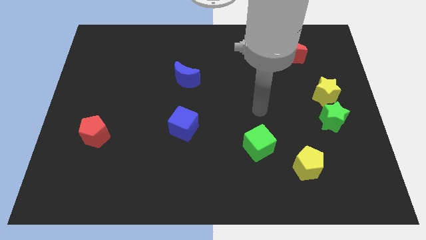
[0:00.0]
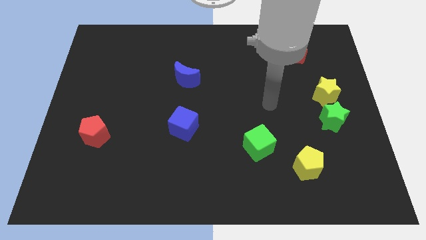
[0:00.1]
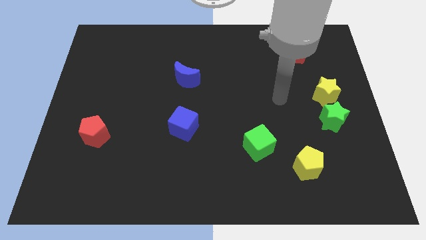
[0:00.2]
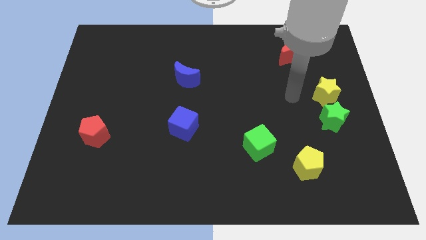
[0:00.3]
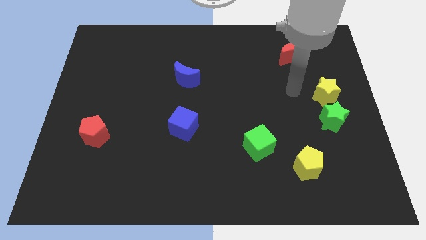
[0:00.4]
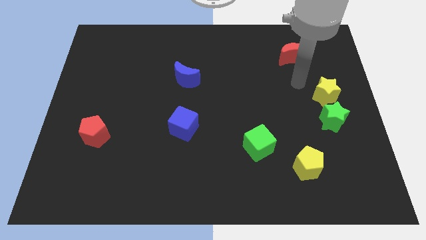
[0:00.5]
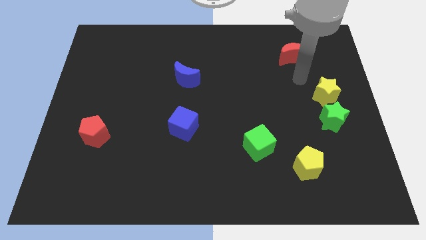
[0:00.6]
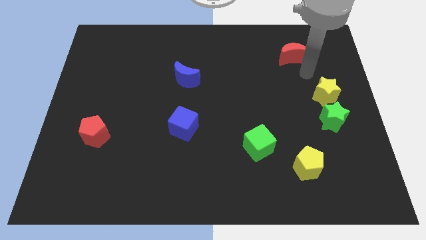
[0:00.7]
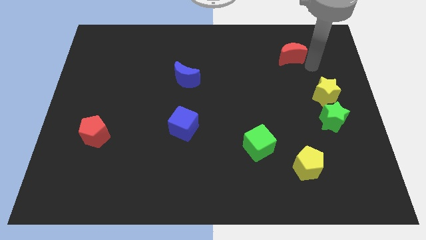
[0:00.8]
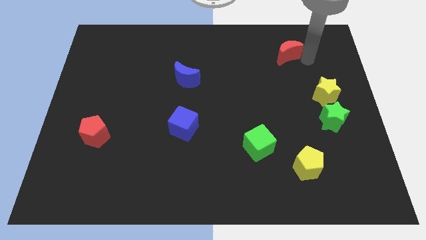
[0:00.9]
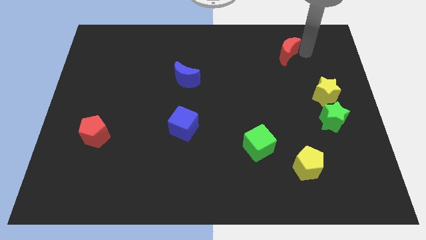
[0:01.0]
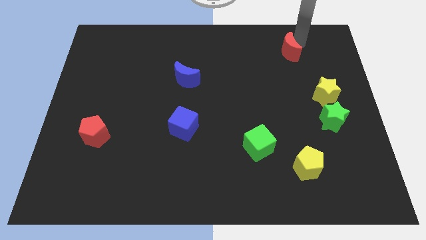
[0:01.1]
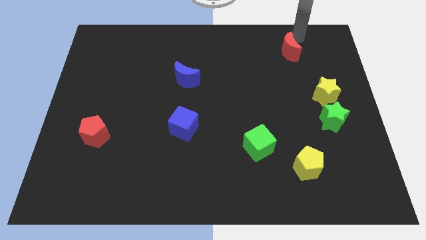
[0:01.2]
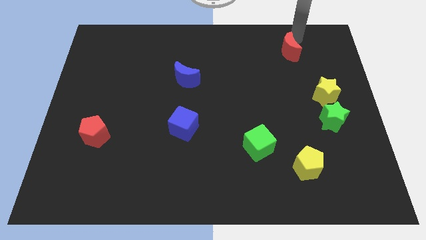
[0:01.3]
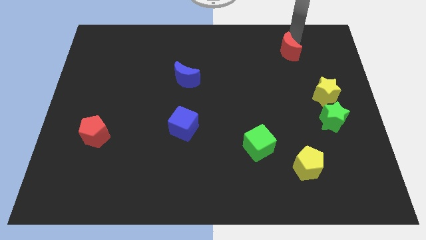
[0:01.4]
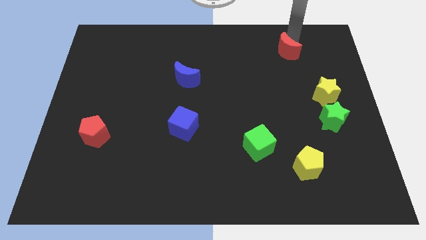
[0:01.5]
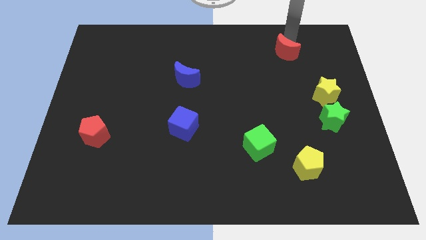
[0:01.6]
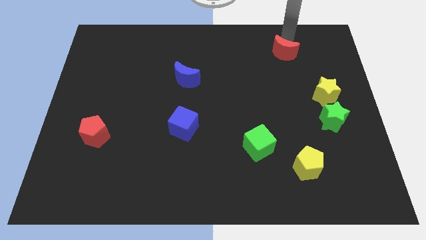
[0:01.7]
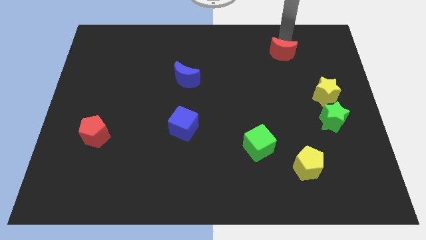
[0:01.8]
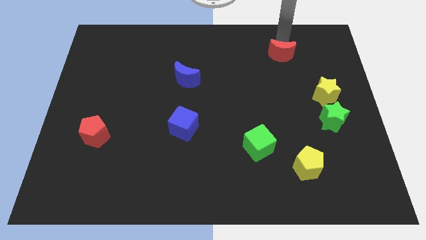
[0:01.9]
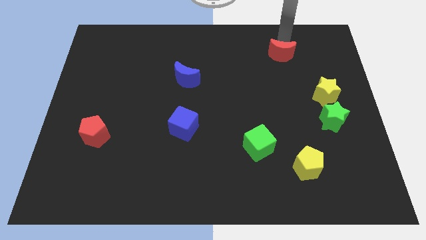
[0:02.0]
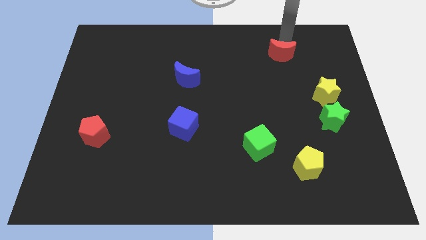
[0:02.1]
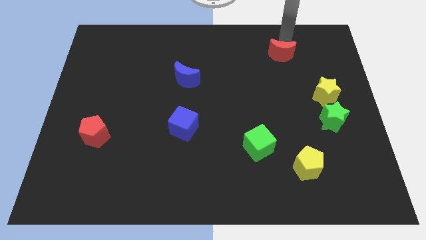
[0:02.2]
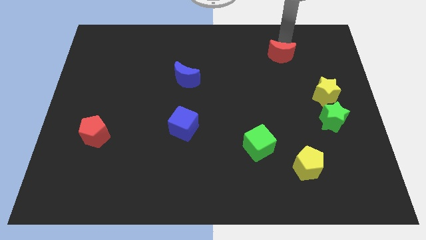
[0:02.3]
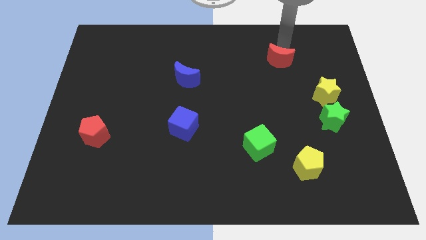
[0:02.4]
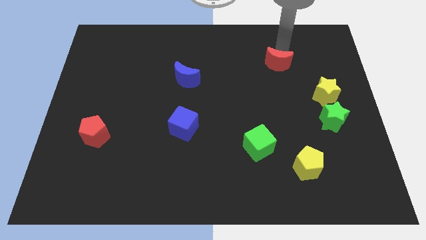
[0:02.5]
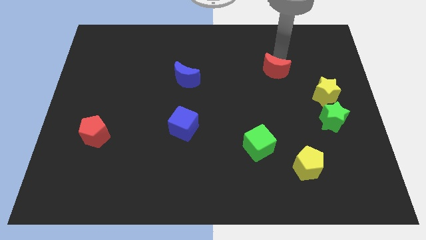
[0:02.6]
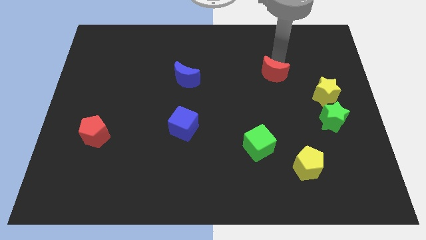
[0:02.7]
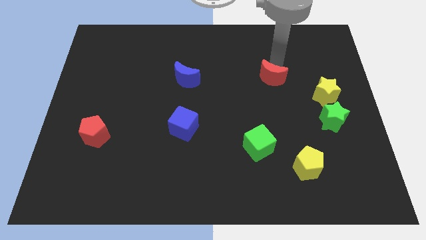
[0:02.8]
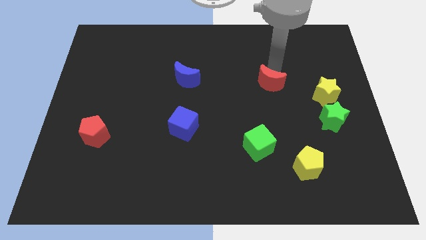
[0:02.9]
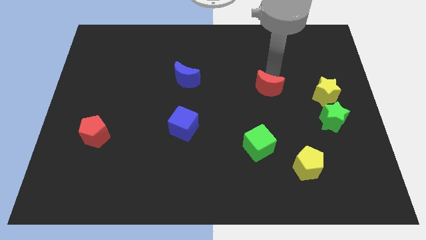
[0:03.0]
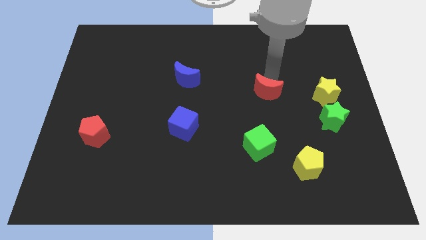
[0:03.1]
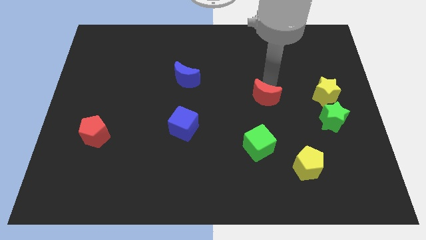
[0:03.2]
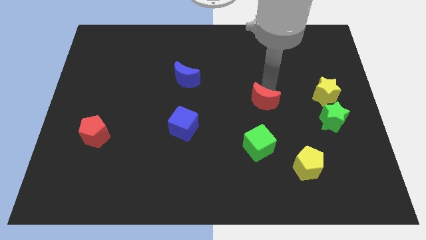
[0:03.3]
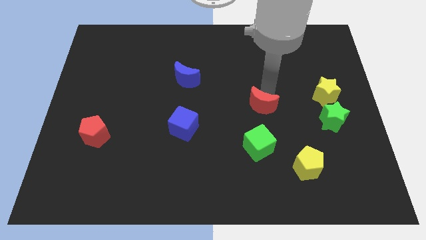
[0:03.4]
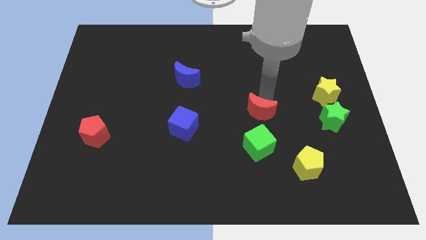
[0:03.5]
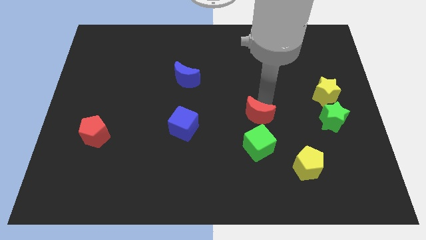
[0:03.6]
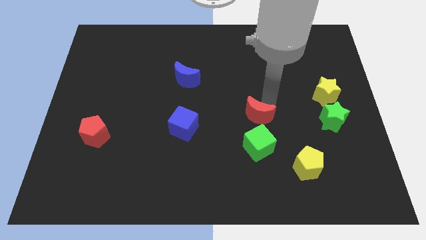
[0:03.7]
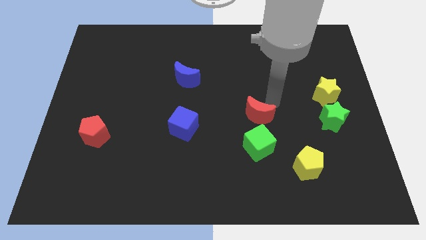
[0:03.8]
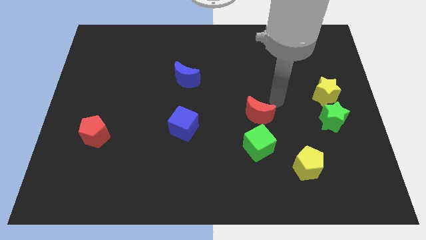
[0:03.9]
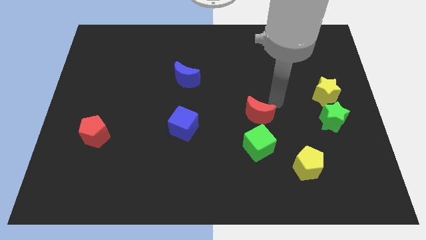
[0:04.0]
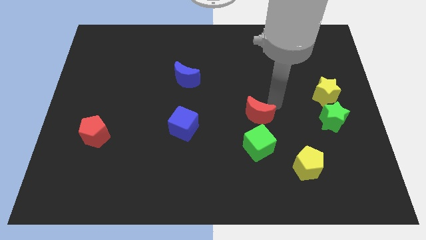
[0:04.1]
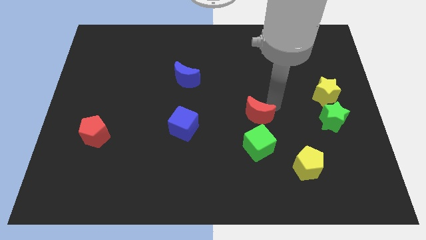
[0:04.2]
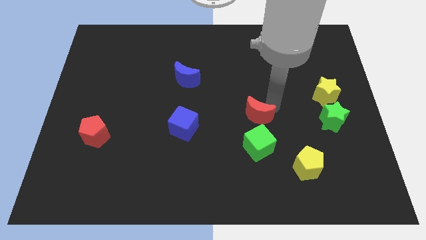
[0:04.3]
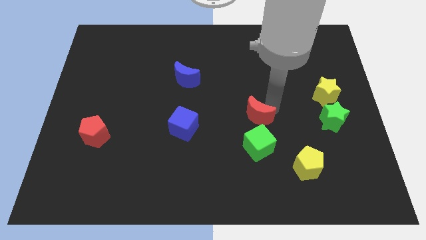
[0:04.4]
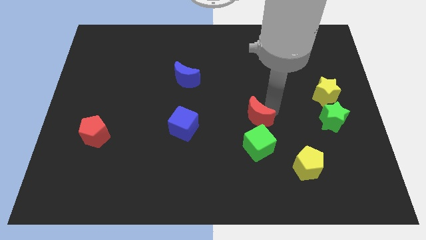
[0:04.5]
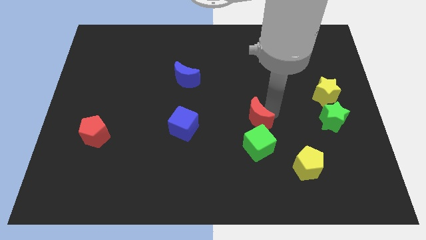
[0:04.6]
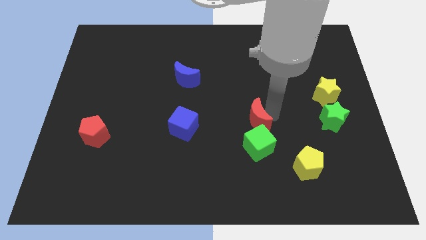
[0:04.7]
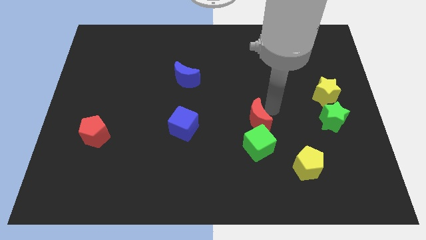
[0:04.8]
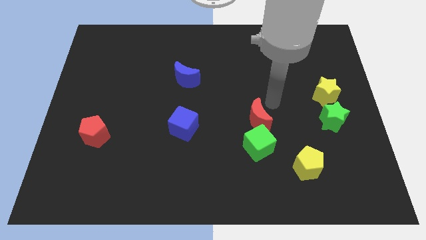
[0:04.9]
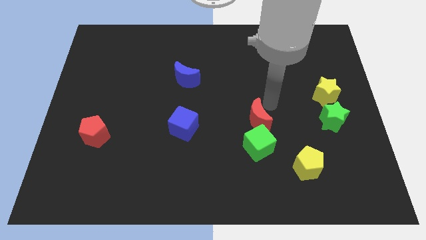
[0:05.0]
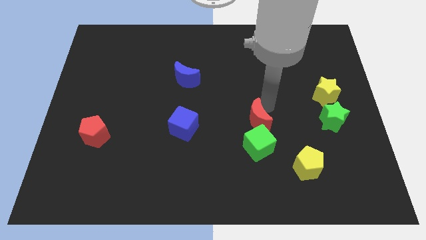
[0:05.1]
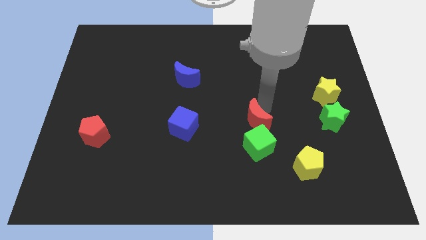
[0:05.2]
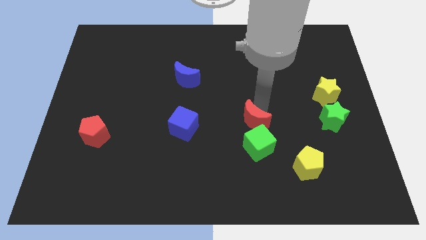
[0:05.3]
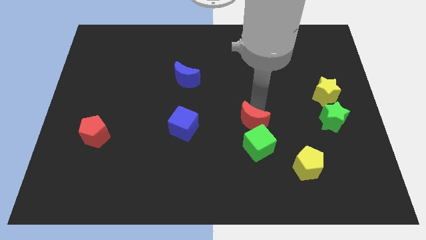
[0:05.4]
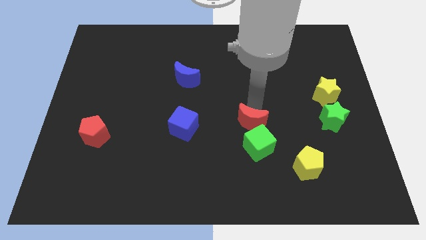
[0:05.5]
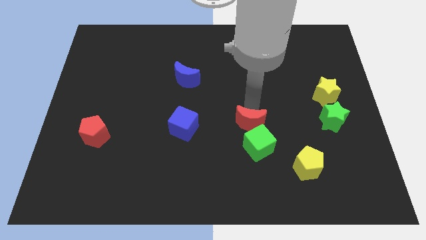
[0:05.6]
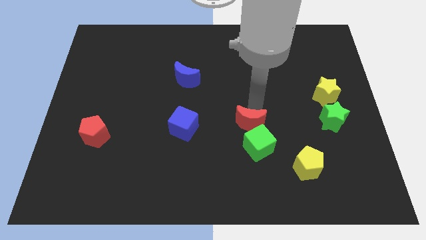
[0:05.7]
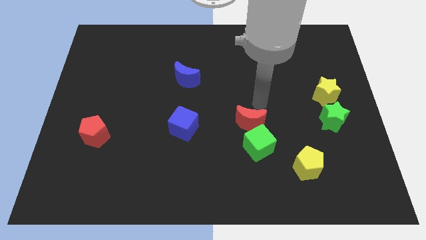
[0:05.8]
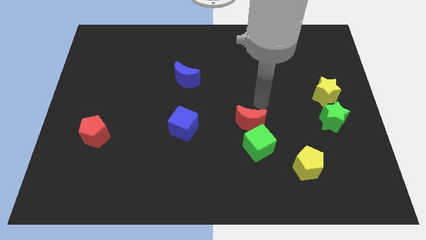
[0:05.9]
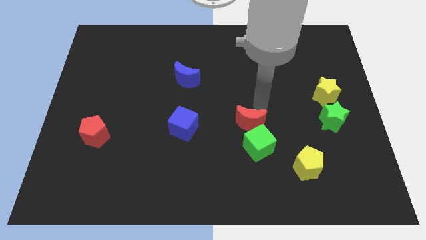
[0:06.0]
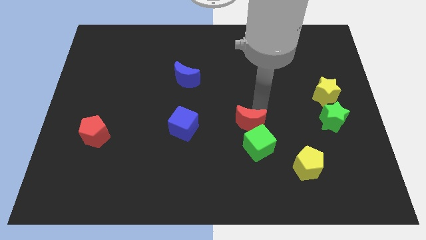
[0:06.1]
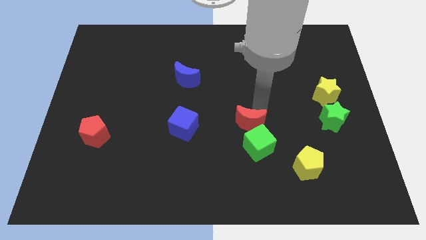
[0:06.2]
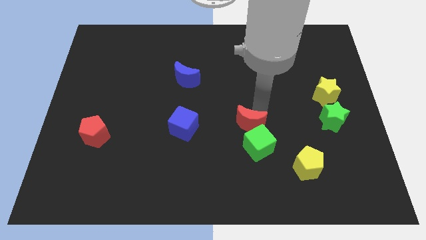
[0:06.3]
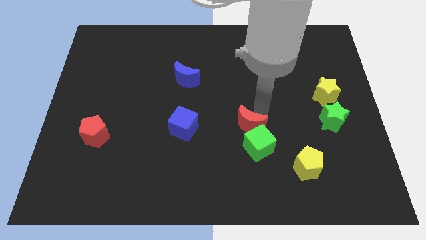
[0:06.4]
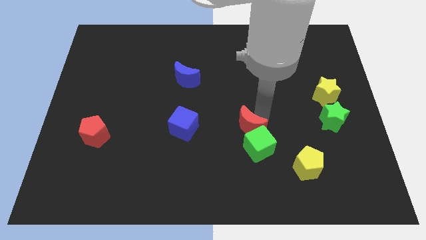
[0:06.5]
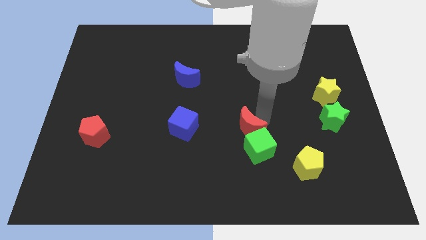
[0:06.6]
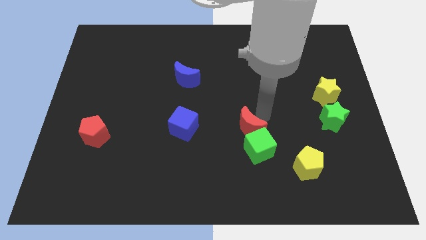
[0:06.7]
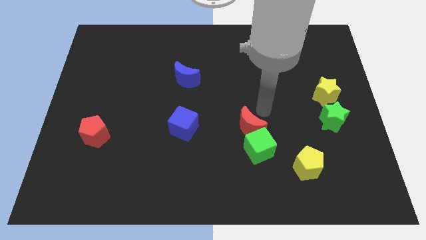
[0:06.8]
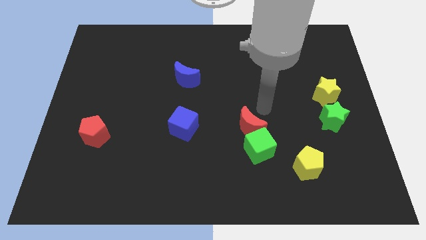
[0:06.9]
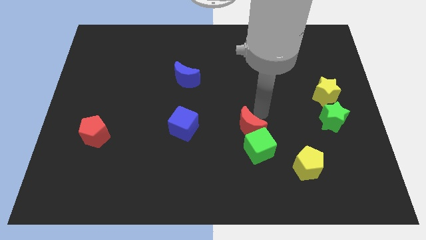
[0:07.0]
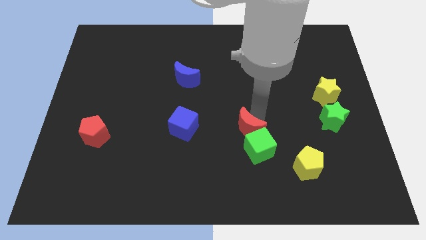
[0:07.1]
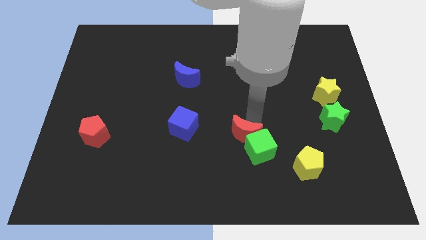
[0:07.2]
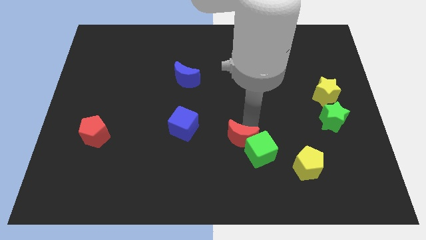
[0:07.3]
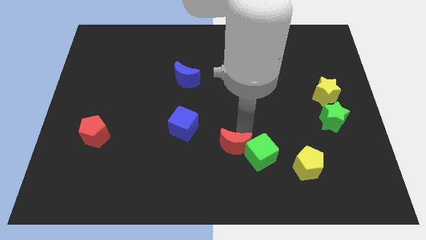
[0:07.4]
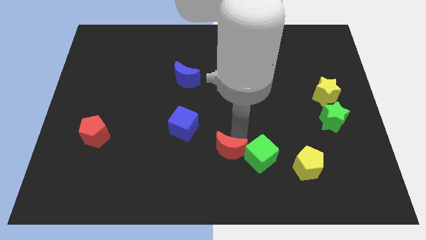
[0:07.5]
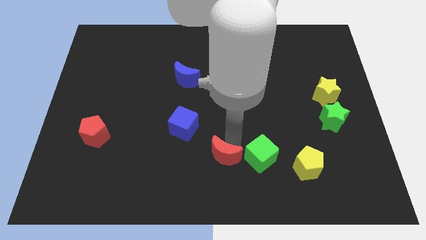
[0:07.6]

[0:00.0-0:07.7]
push the red moon to the bottom side

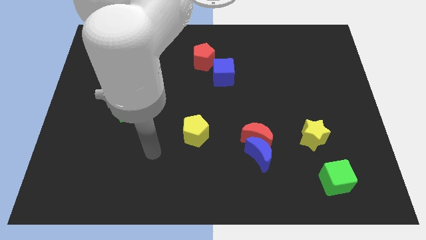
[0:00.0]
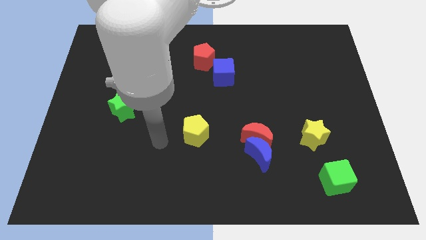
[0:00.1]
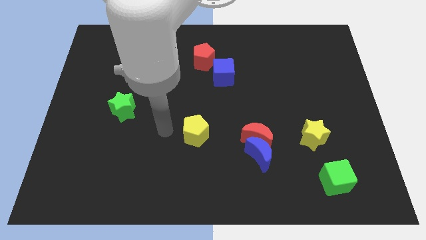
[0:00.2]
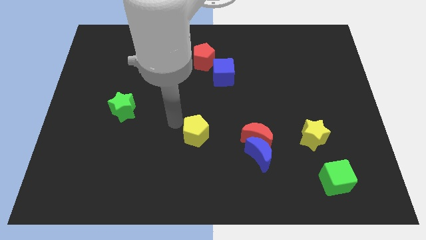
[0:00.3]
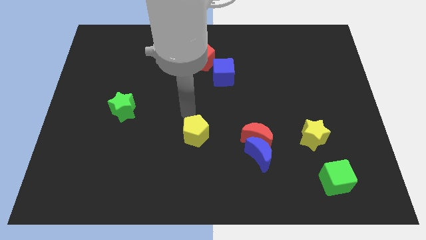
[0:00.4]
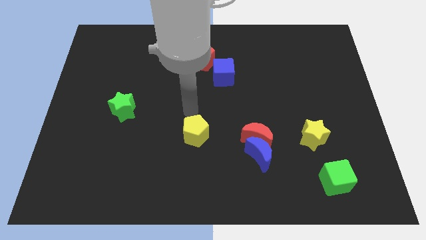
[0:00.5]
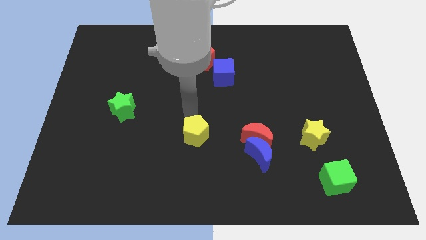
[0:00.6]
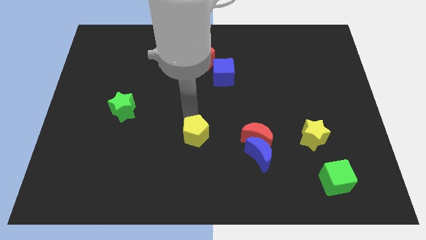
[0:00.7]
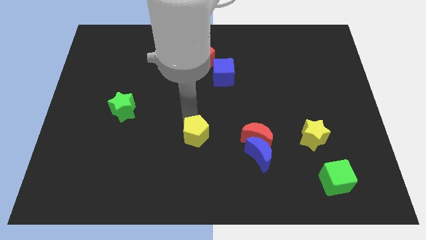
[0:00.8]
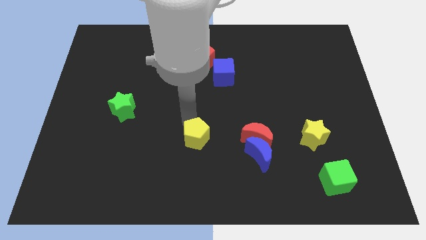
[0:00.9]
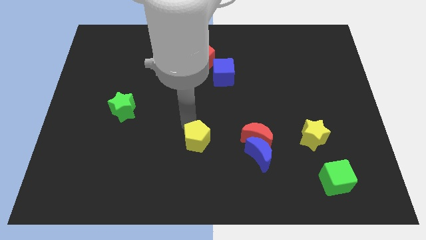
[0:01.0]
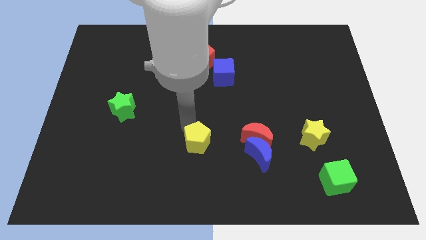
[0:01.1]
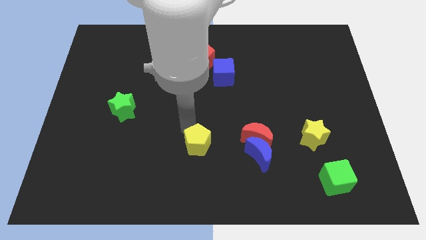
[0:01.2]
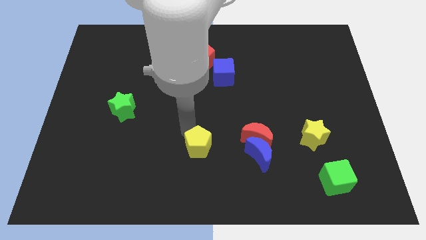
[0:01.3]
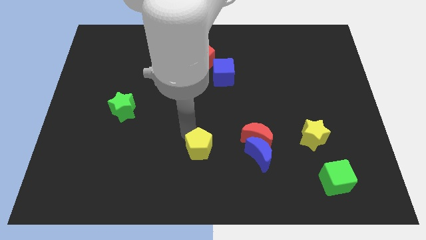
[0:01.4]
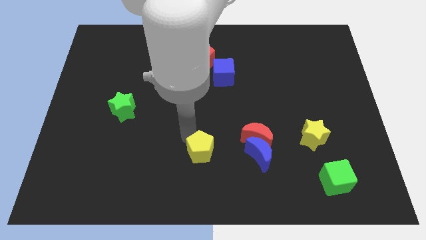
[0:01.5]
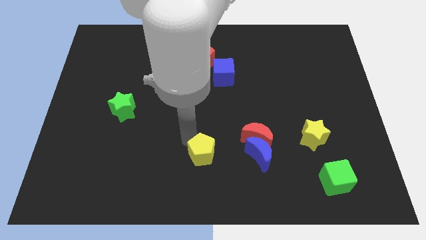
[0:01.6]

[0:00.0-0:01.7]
move the yellow pentagon to the bottom
